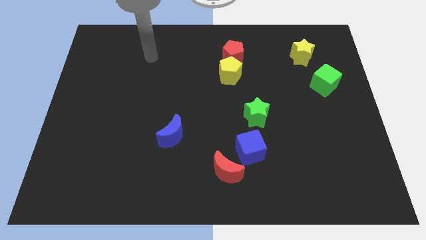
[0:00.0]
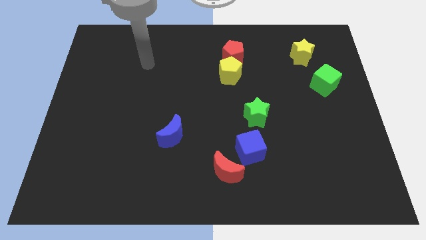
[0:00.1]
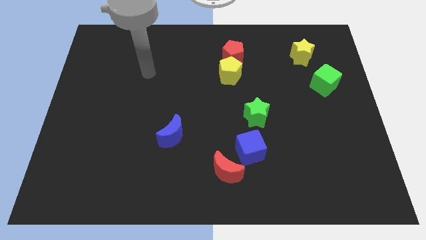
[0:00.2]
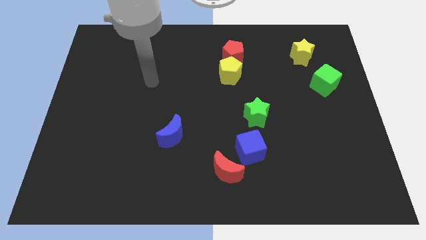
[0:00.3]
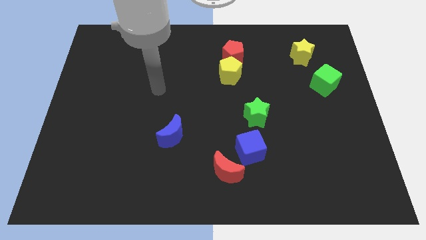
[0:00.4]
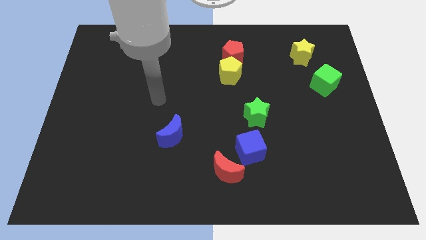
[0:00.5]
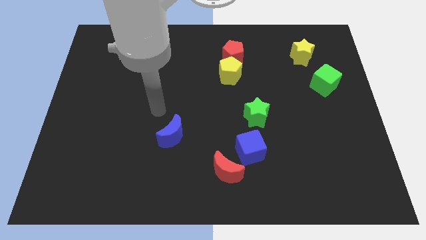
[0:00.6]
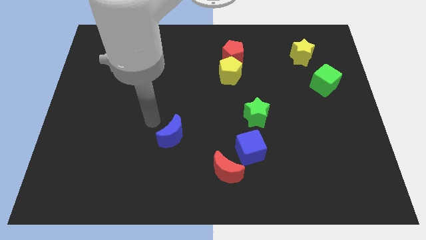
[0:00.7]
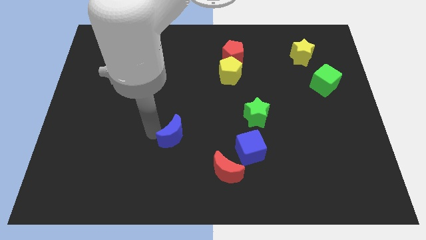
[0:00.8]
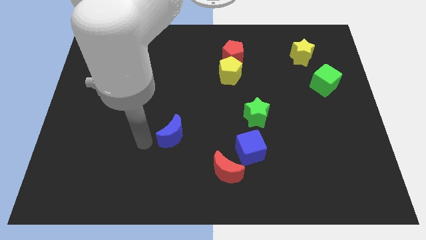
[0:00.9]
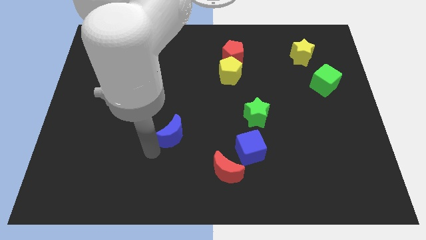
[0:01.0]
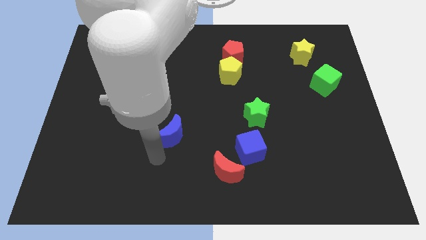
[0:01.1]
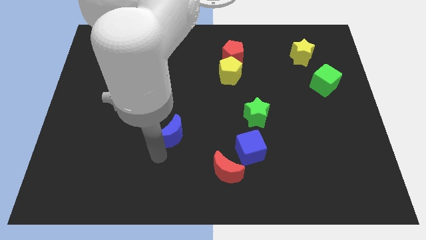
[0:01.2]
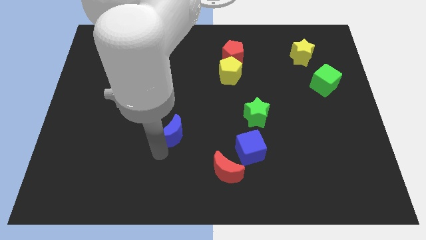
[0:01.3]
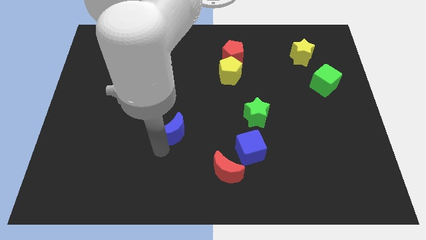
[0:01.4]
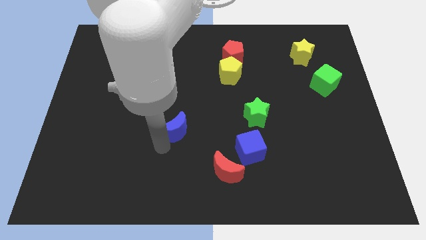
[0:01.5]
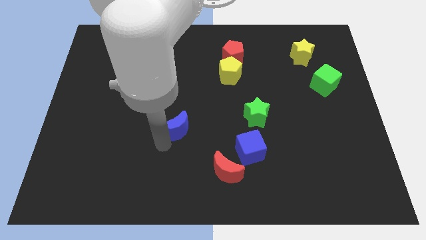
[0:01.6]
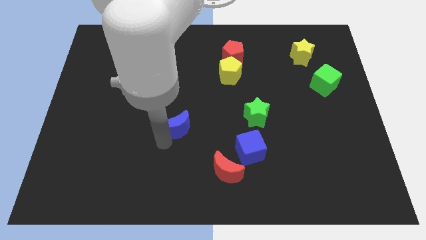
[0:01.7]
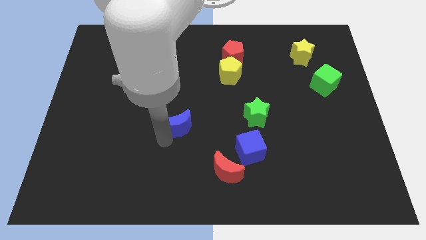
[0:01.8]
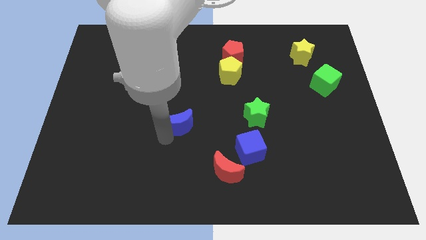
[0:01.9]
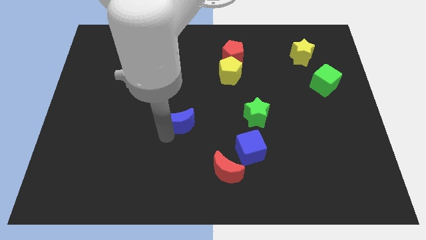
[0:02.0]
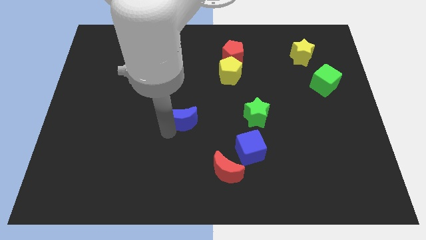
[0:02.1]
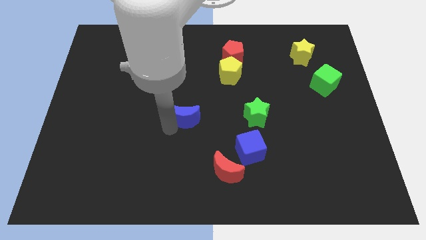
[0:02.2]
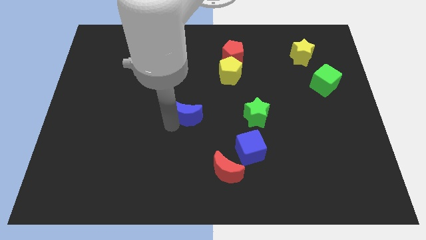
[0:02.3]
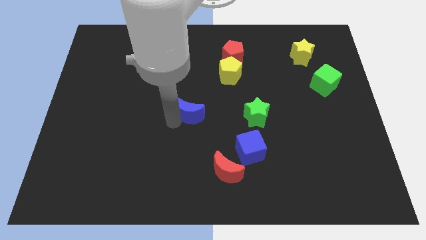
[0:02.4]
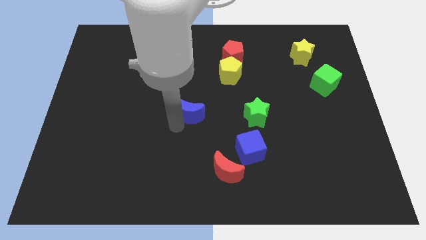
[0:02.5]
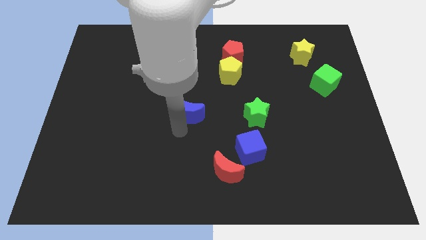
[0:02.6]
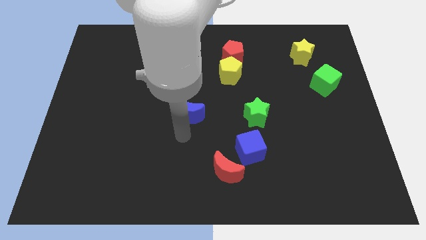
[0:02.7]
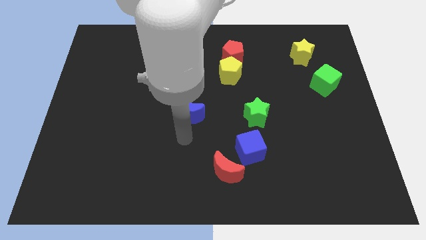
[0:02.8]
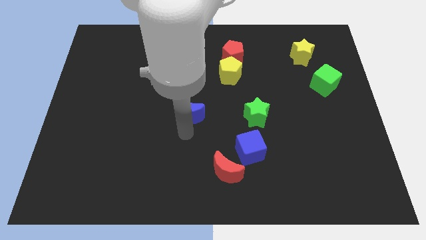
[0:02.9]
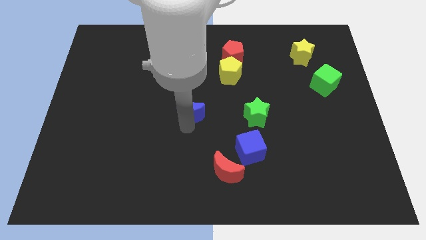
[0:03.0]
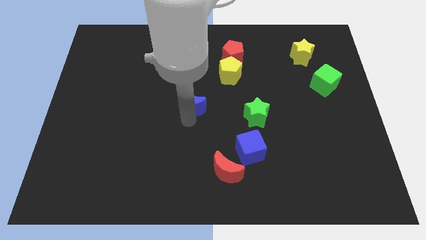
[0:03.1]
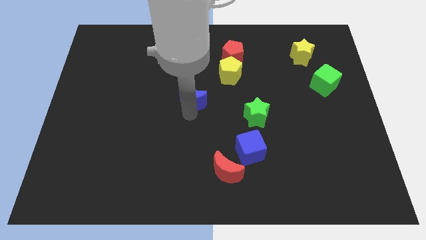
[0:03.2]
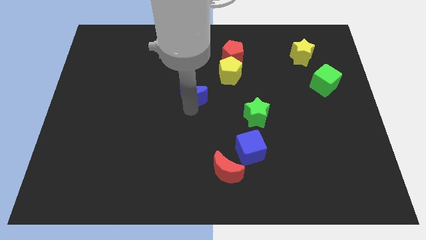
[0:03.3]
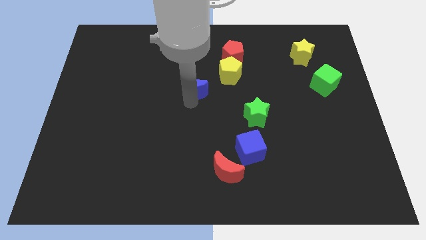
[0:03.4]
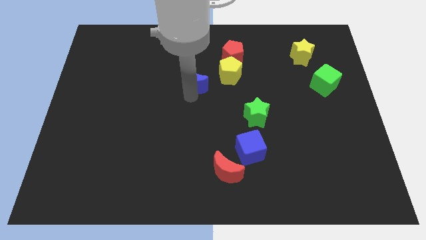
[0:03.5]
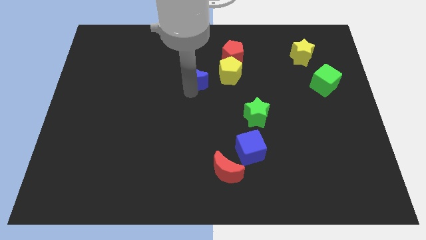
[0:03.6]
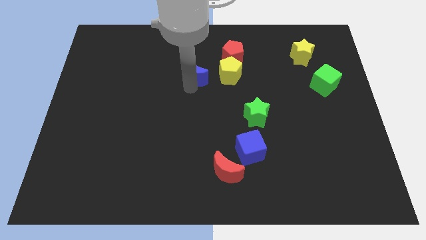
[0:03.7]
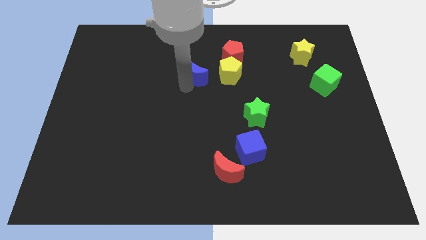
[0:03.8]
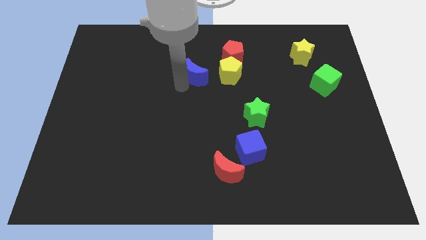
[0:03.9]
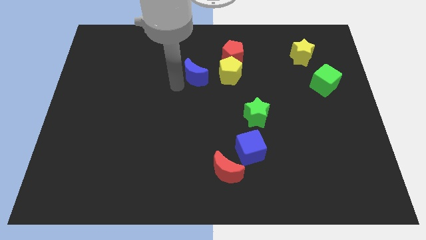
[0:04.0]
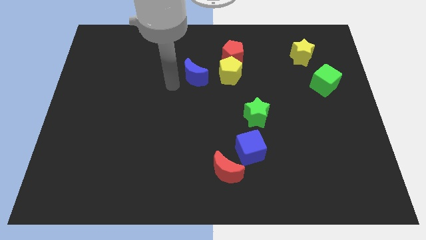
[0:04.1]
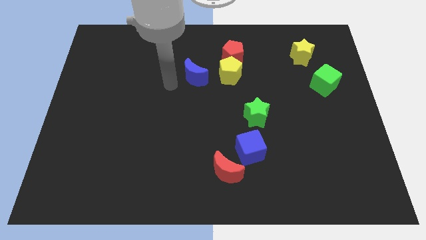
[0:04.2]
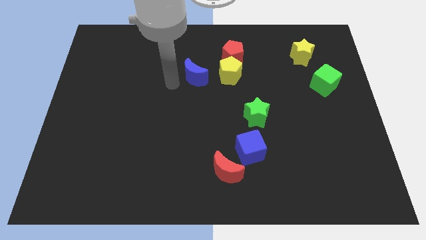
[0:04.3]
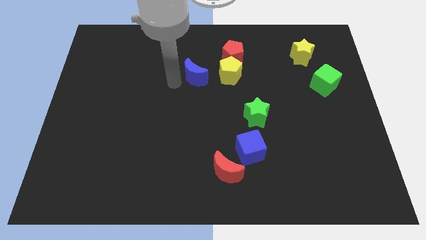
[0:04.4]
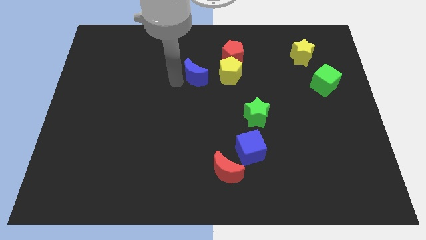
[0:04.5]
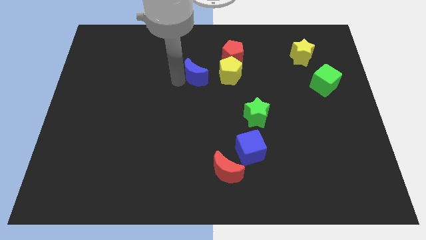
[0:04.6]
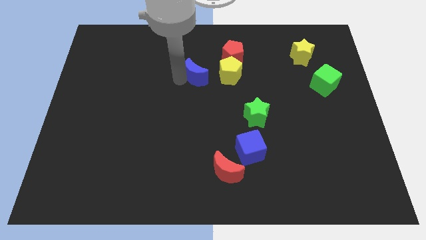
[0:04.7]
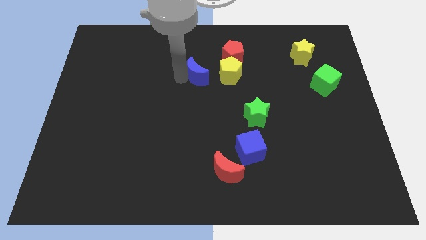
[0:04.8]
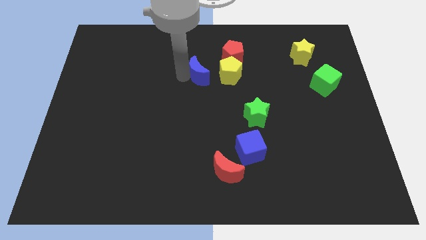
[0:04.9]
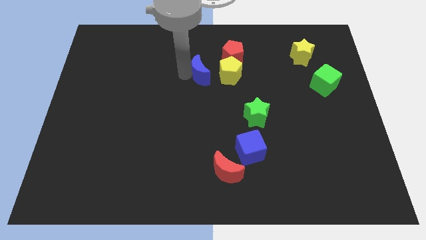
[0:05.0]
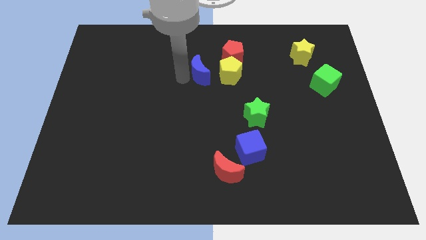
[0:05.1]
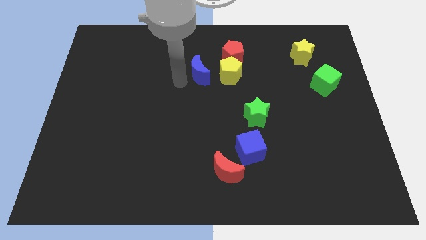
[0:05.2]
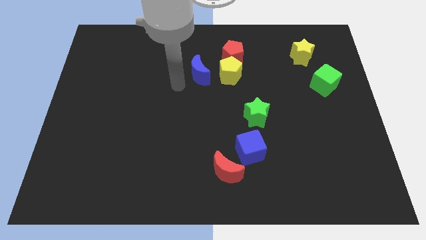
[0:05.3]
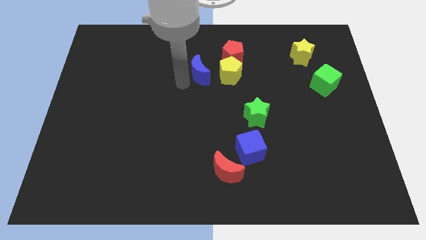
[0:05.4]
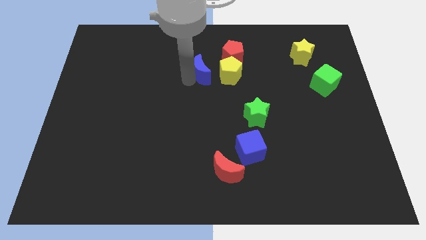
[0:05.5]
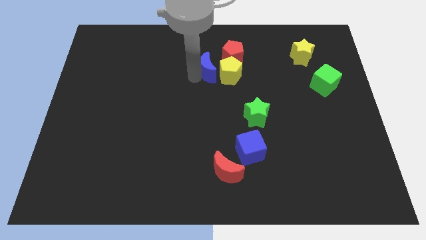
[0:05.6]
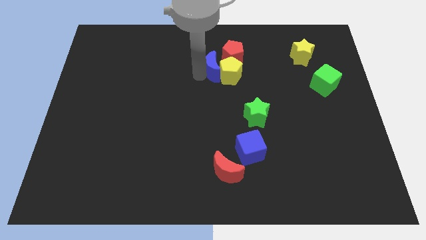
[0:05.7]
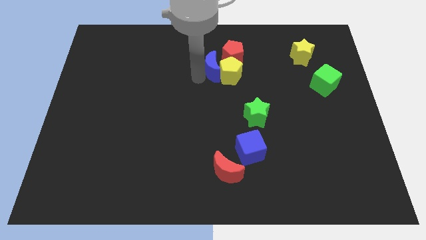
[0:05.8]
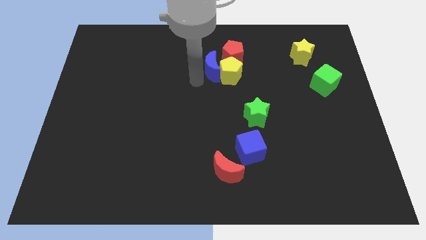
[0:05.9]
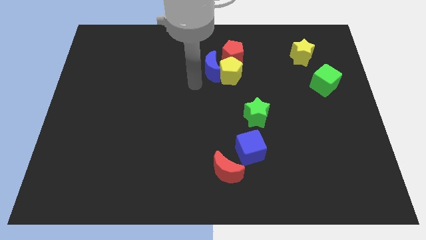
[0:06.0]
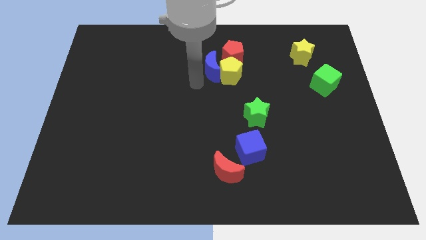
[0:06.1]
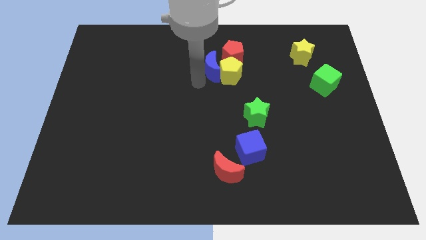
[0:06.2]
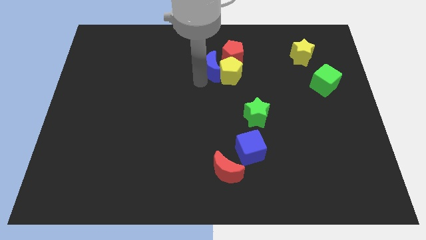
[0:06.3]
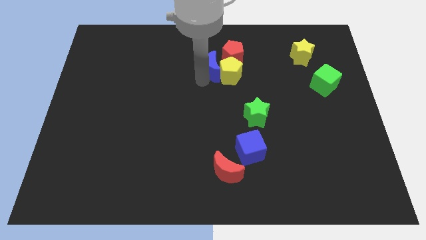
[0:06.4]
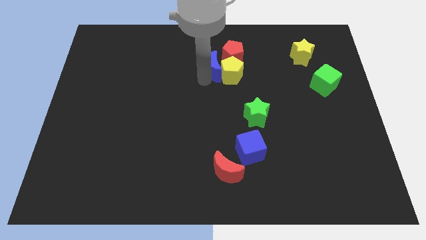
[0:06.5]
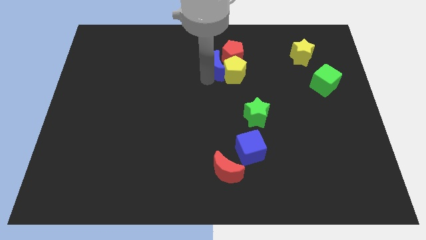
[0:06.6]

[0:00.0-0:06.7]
move the blue moon next to the red pentagon

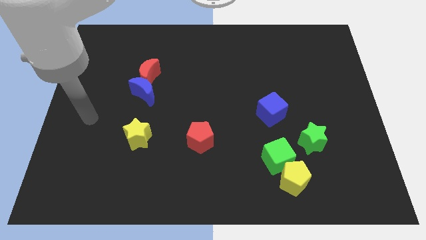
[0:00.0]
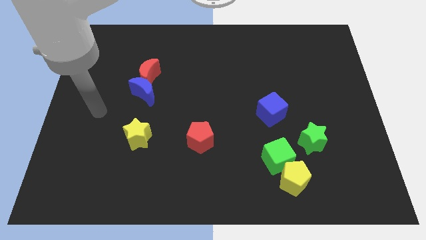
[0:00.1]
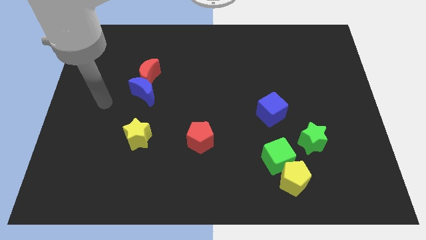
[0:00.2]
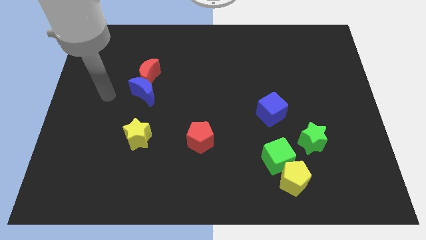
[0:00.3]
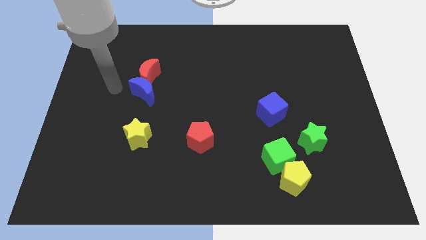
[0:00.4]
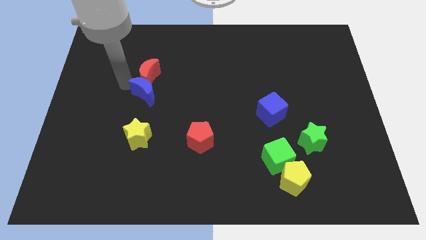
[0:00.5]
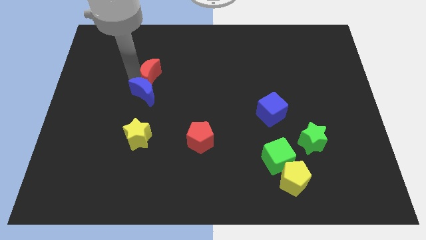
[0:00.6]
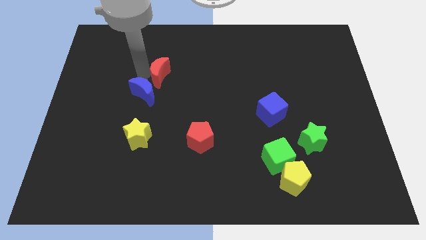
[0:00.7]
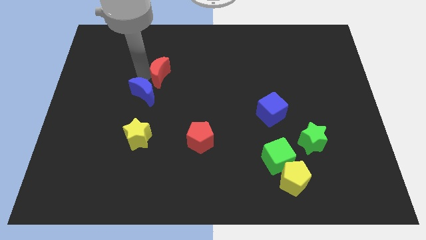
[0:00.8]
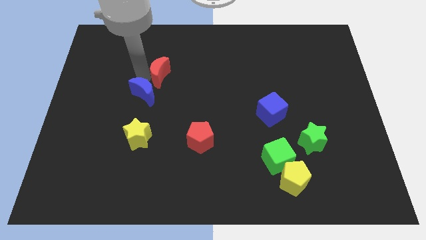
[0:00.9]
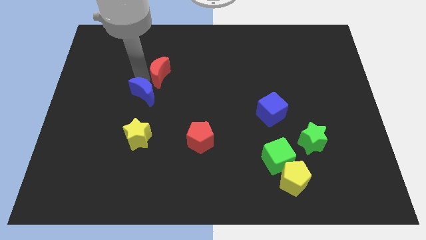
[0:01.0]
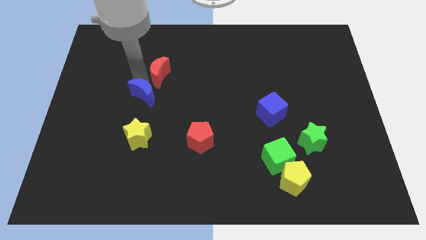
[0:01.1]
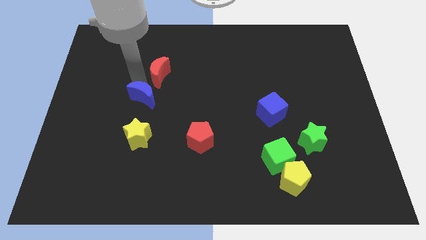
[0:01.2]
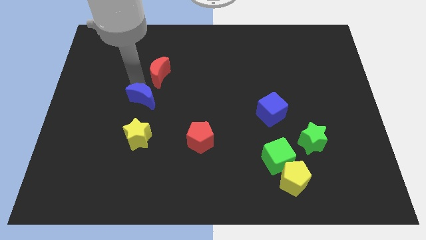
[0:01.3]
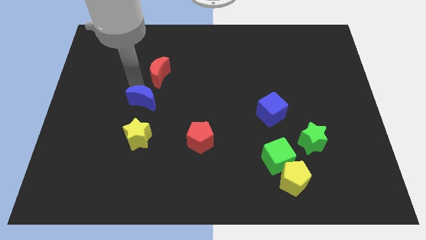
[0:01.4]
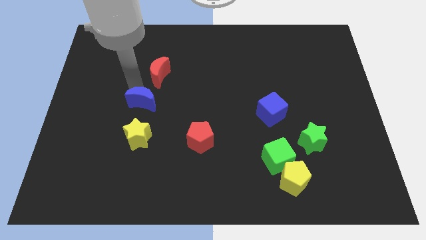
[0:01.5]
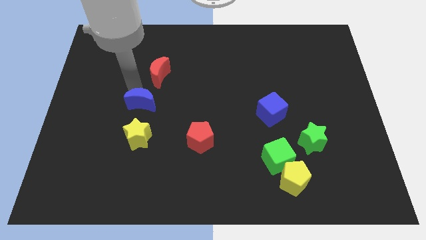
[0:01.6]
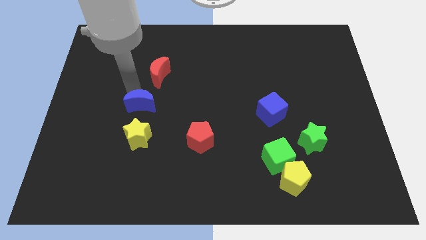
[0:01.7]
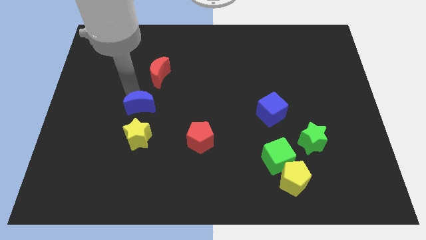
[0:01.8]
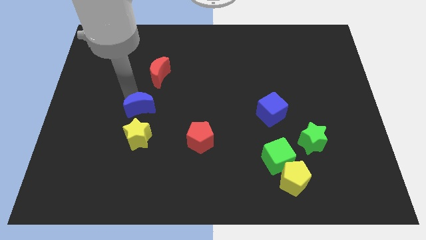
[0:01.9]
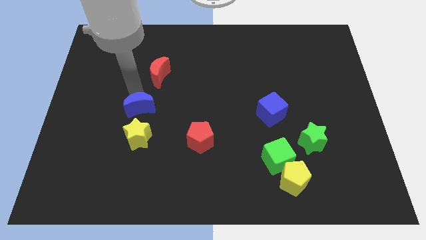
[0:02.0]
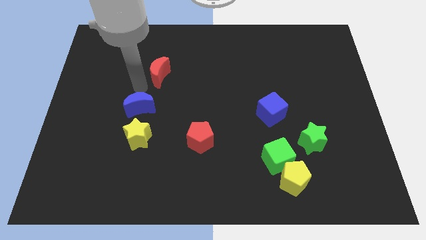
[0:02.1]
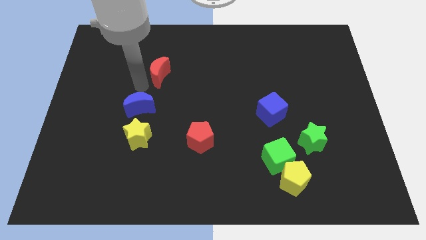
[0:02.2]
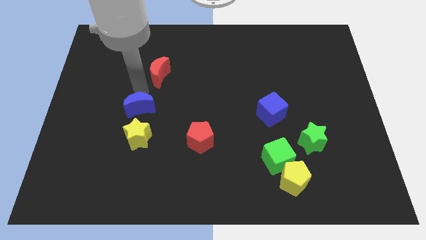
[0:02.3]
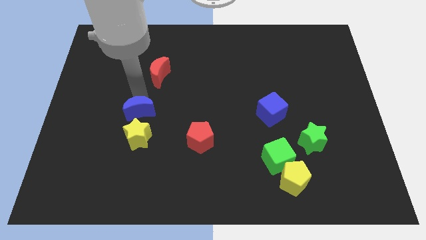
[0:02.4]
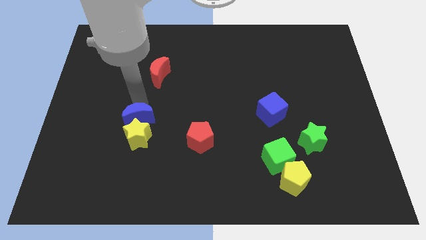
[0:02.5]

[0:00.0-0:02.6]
push the blue moon towards the yellow star
